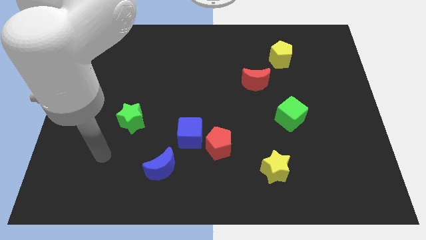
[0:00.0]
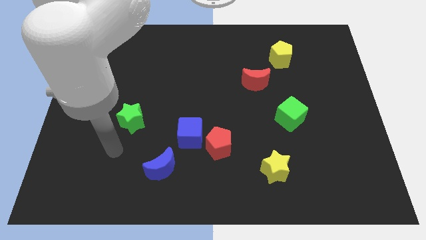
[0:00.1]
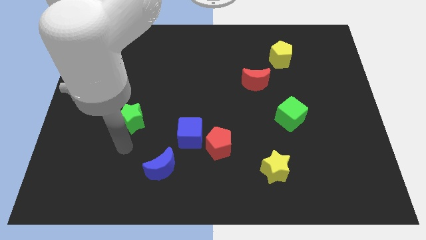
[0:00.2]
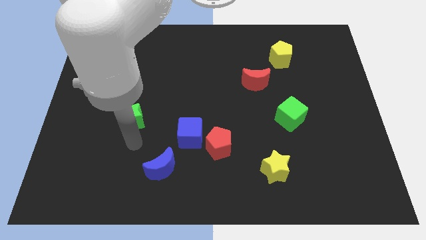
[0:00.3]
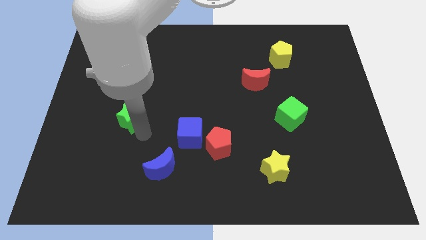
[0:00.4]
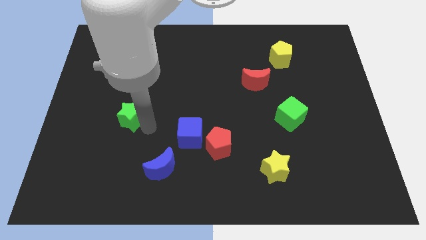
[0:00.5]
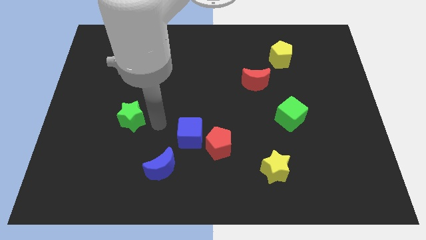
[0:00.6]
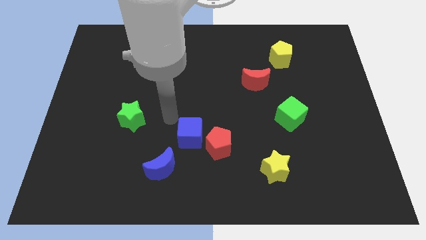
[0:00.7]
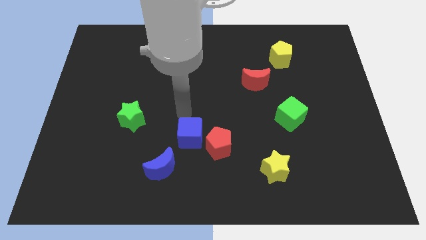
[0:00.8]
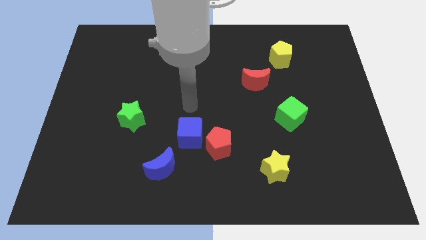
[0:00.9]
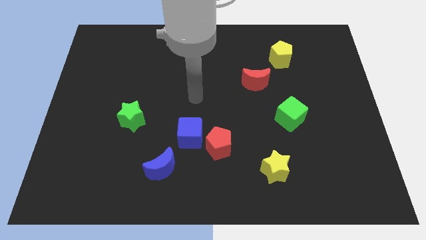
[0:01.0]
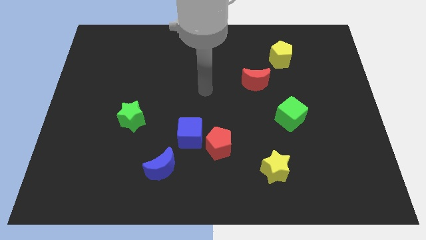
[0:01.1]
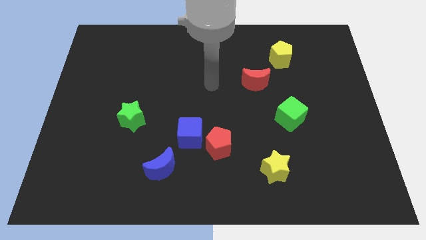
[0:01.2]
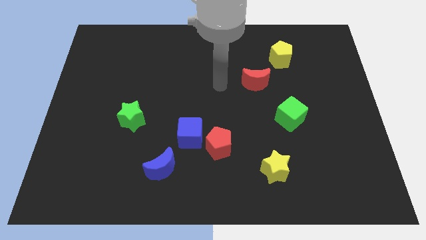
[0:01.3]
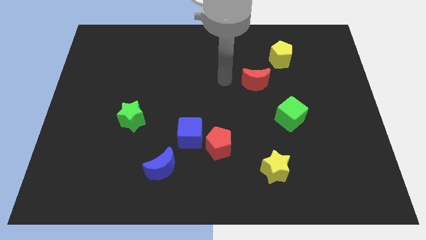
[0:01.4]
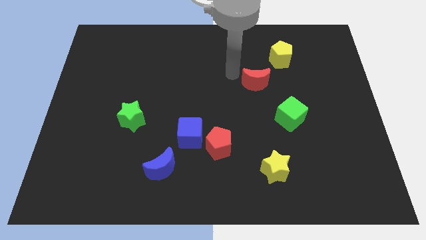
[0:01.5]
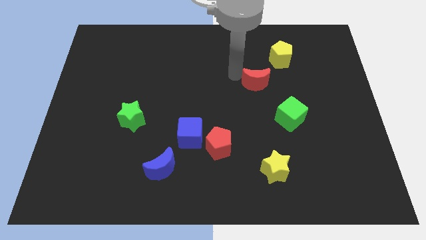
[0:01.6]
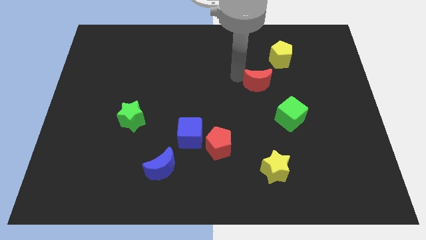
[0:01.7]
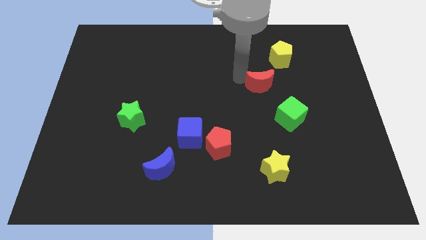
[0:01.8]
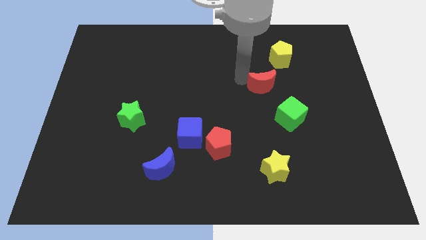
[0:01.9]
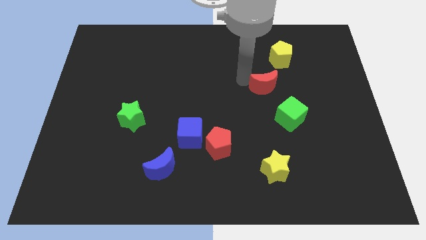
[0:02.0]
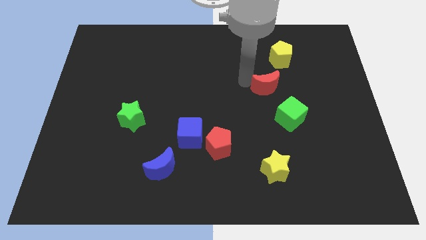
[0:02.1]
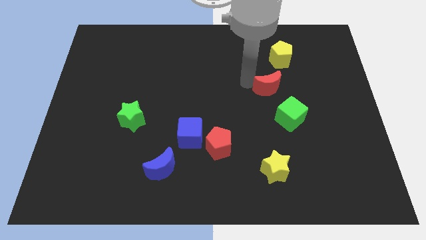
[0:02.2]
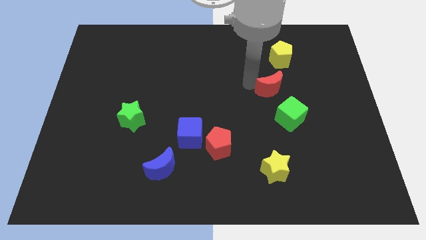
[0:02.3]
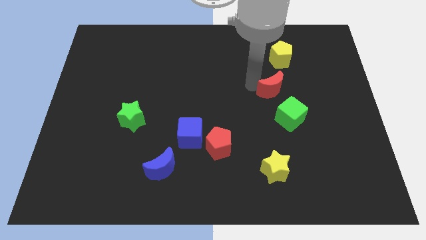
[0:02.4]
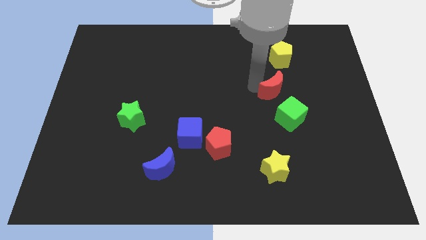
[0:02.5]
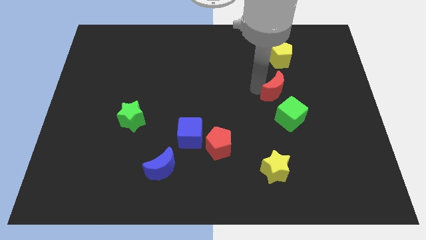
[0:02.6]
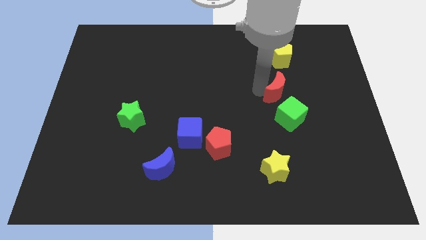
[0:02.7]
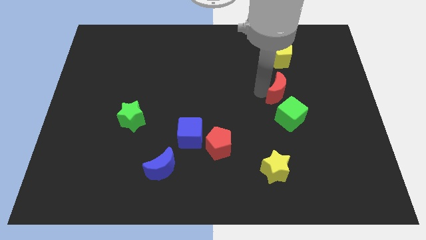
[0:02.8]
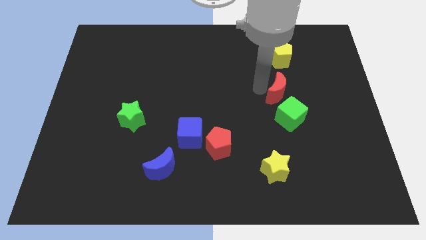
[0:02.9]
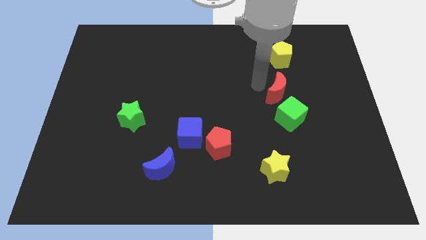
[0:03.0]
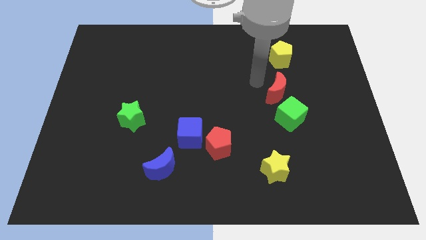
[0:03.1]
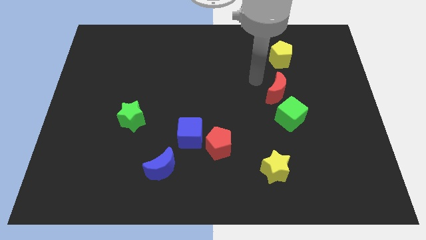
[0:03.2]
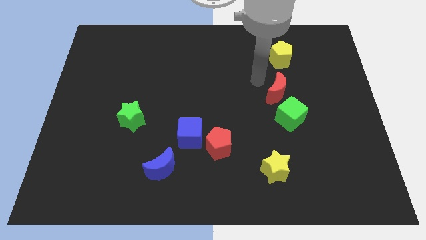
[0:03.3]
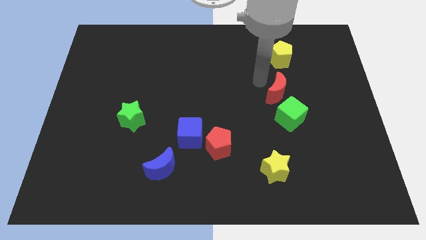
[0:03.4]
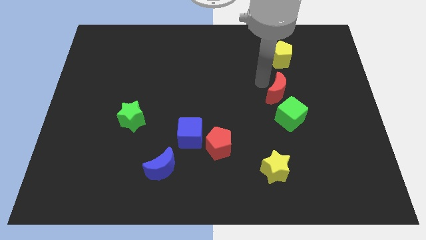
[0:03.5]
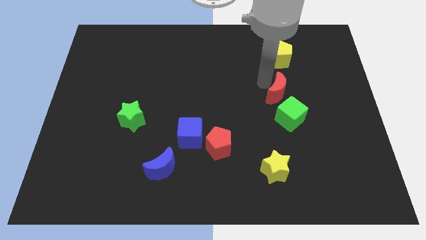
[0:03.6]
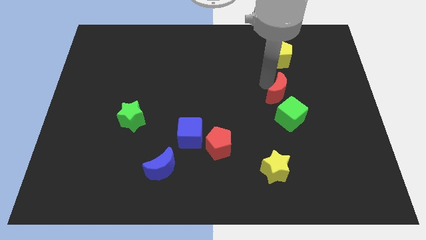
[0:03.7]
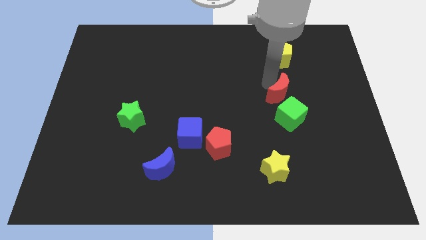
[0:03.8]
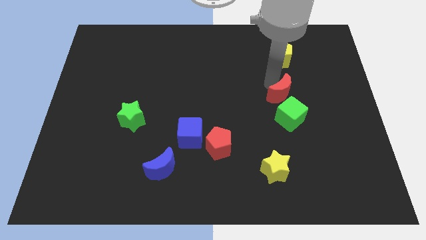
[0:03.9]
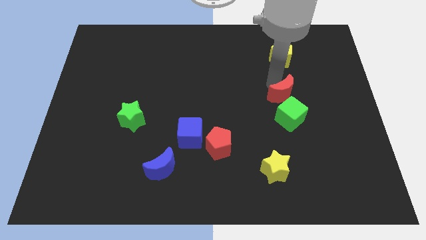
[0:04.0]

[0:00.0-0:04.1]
push the red moon downwards and right slightly

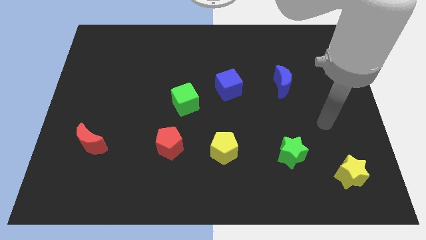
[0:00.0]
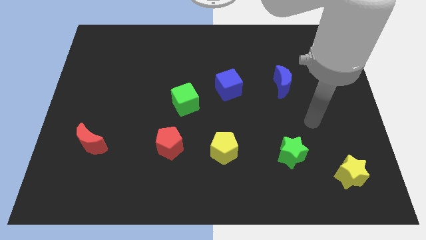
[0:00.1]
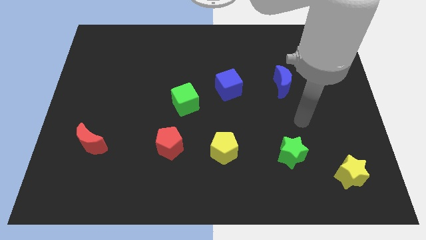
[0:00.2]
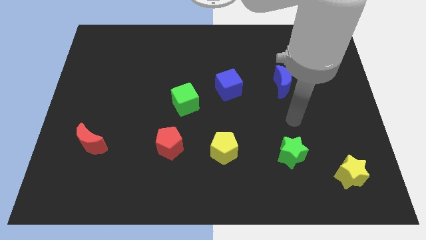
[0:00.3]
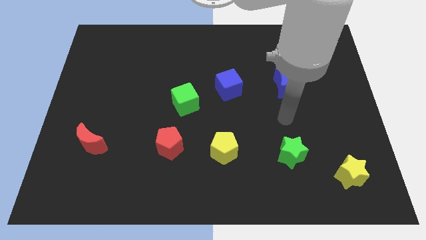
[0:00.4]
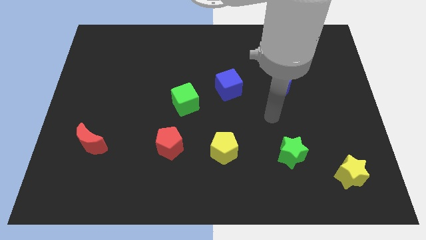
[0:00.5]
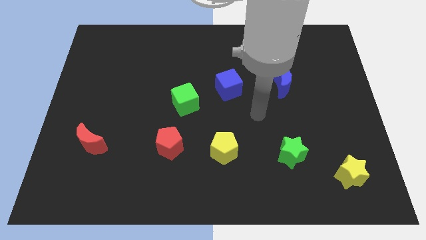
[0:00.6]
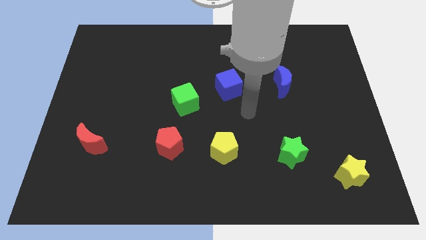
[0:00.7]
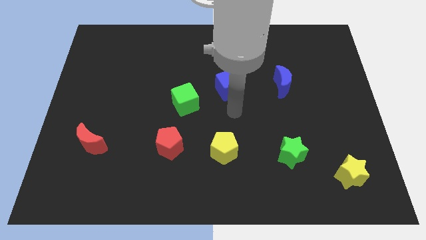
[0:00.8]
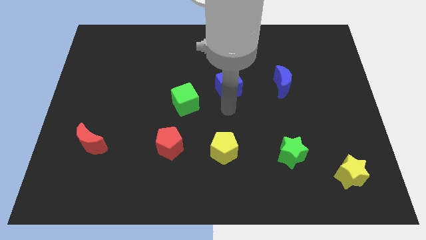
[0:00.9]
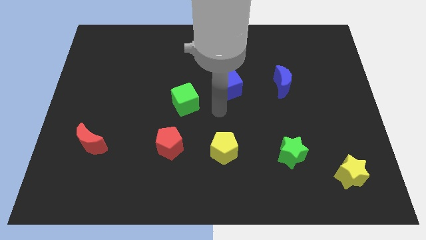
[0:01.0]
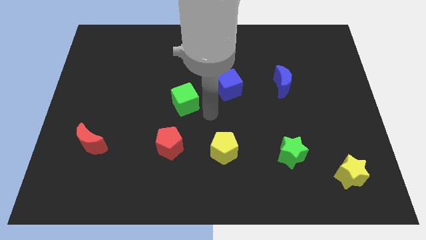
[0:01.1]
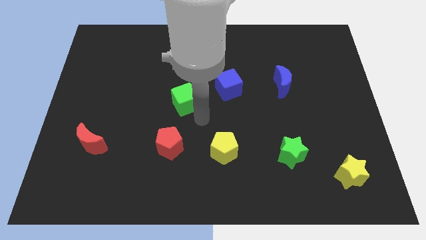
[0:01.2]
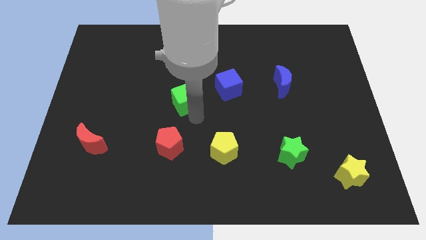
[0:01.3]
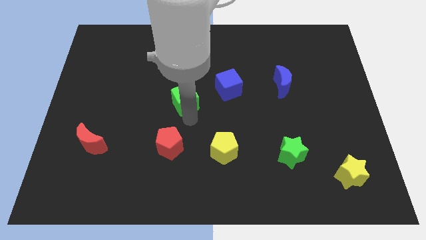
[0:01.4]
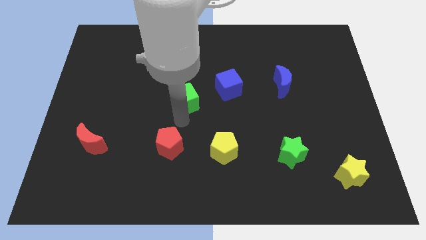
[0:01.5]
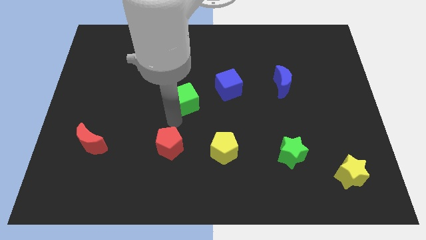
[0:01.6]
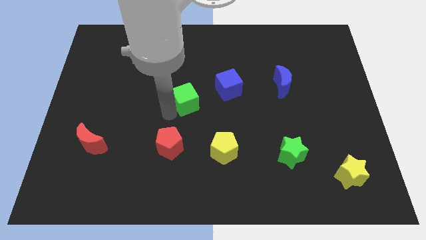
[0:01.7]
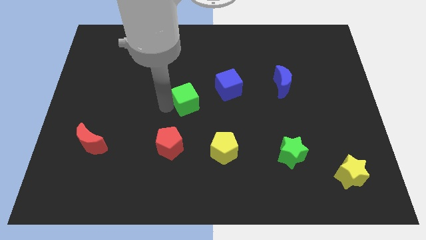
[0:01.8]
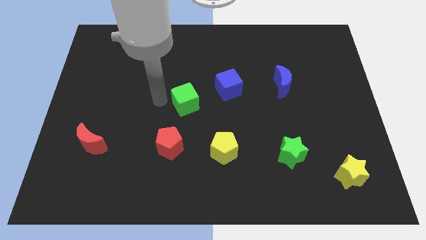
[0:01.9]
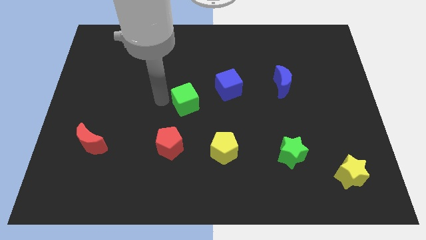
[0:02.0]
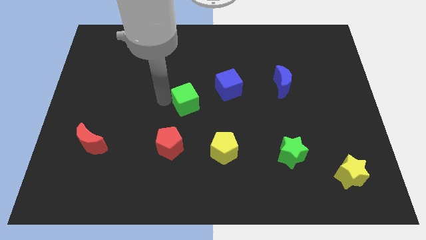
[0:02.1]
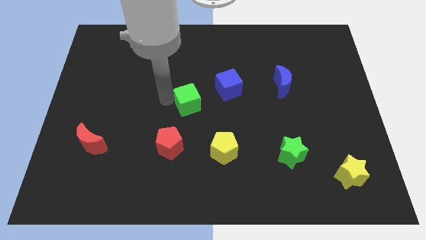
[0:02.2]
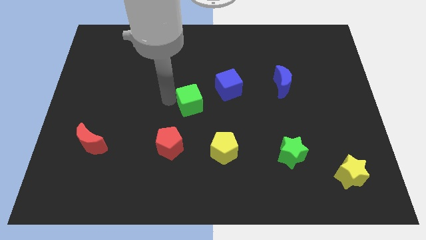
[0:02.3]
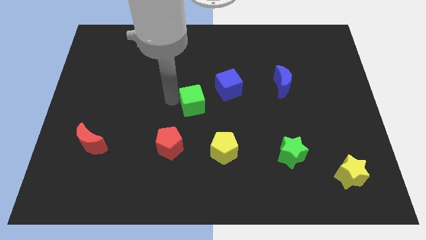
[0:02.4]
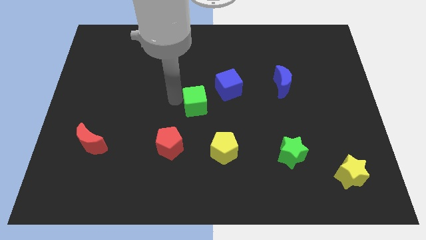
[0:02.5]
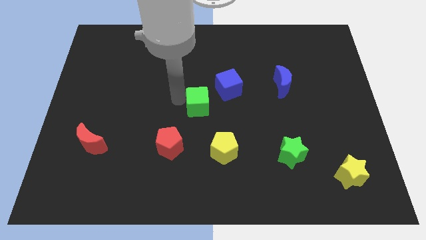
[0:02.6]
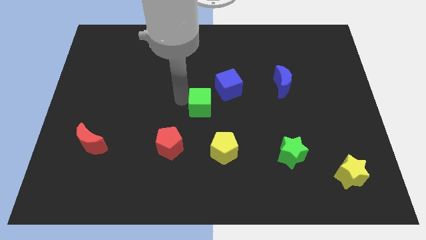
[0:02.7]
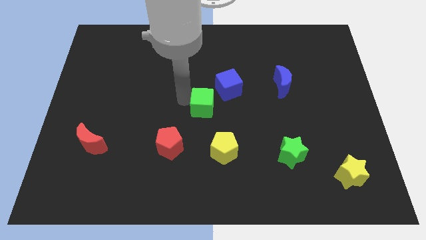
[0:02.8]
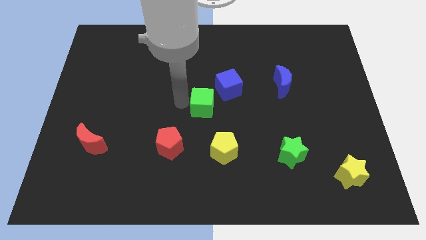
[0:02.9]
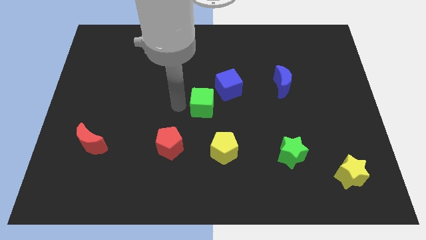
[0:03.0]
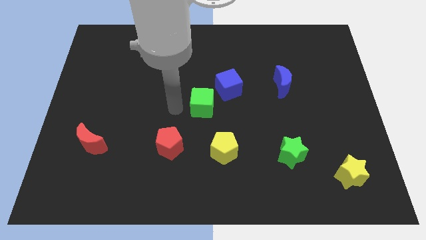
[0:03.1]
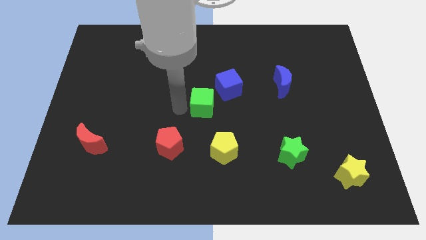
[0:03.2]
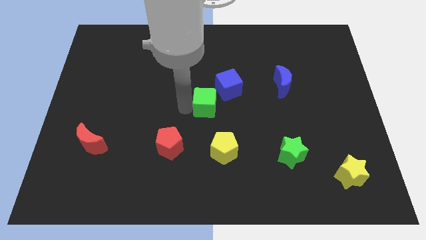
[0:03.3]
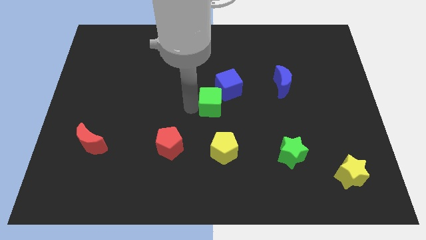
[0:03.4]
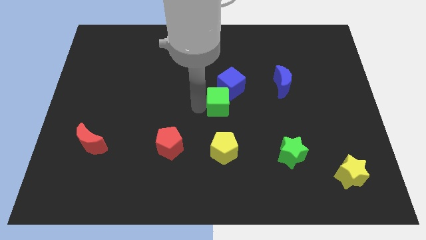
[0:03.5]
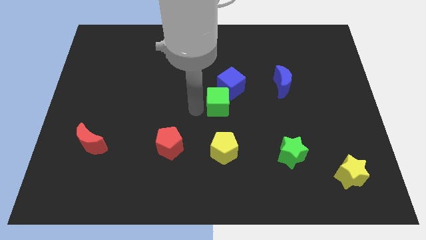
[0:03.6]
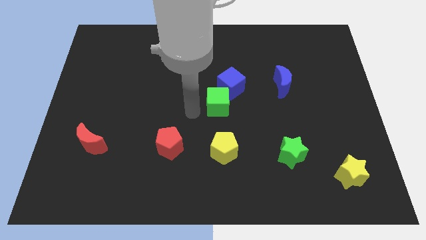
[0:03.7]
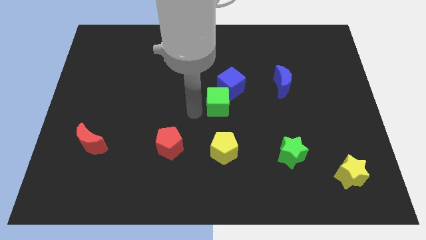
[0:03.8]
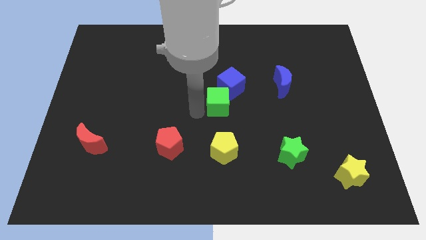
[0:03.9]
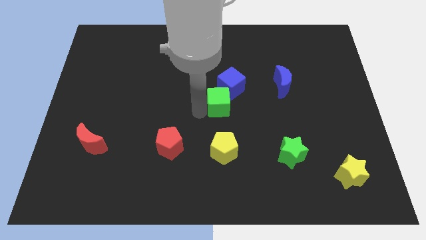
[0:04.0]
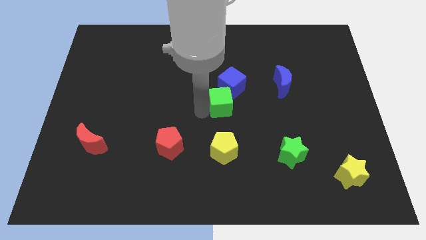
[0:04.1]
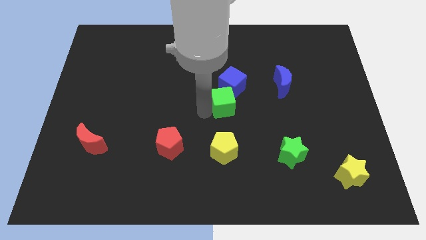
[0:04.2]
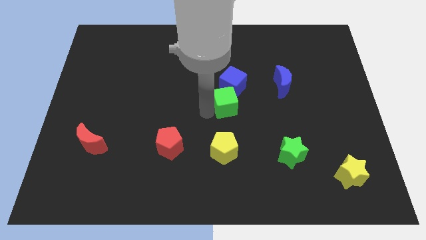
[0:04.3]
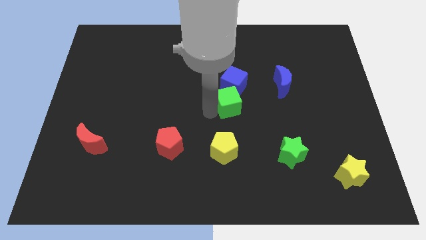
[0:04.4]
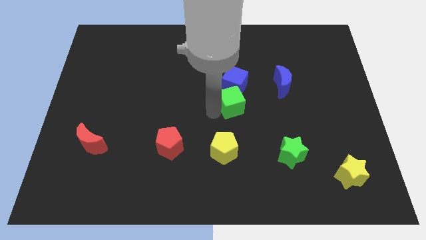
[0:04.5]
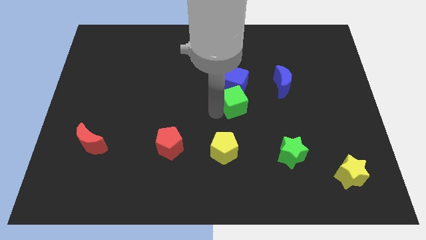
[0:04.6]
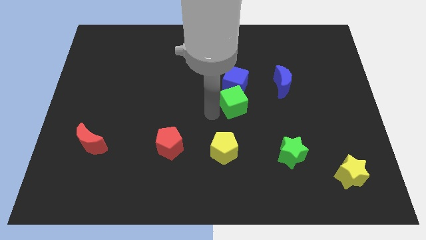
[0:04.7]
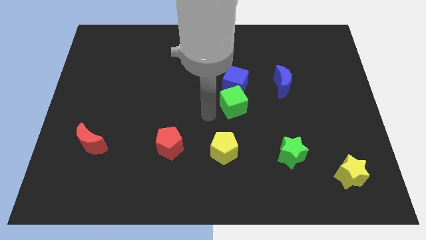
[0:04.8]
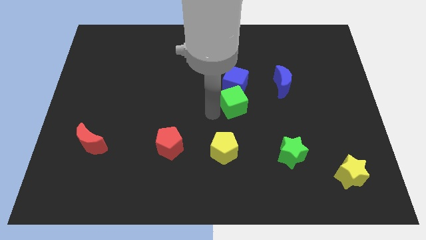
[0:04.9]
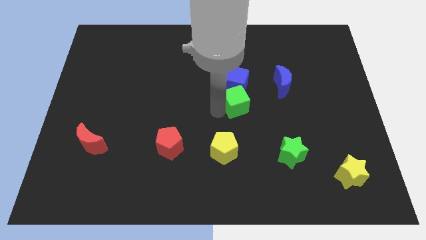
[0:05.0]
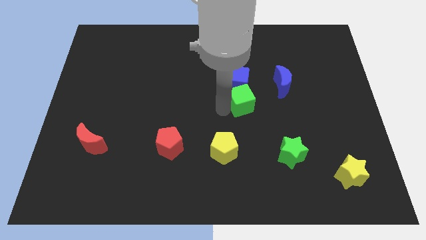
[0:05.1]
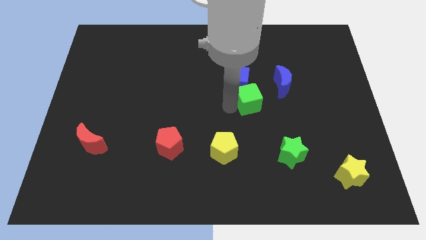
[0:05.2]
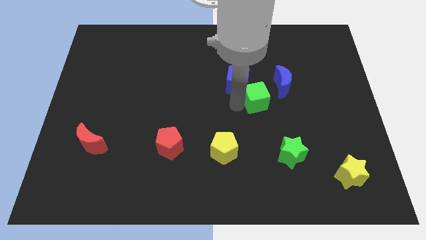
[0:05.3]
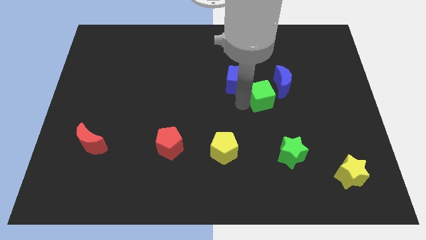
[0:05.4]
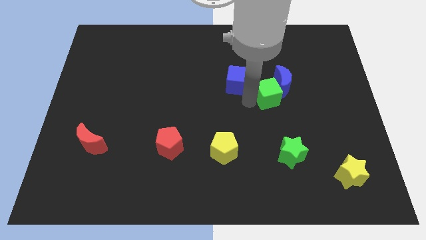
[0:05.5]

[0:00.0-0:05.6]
push the green cube right
